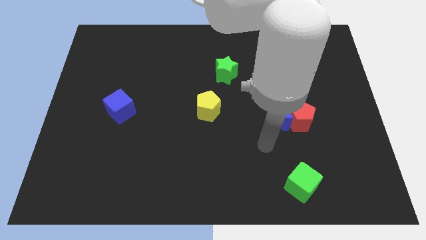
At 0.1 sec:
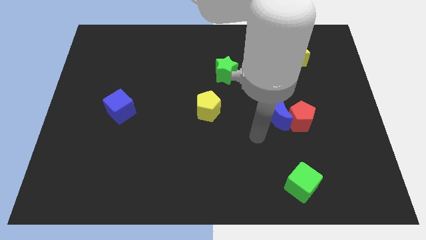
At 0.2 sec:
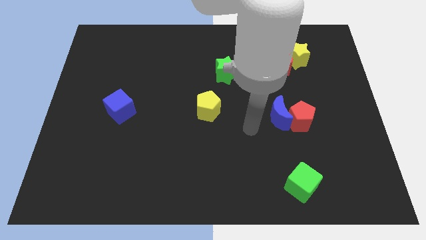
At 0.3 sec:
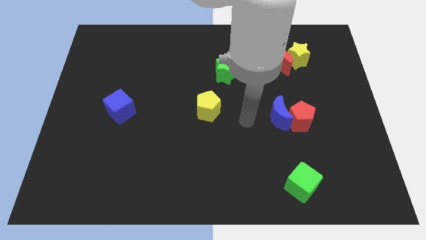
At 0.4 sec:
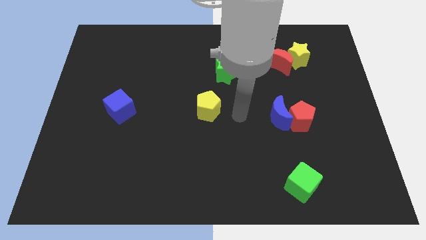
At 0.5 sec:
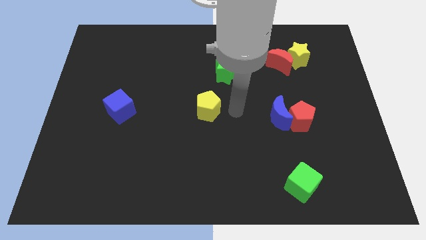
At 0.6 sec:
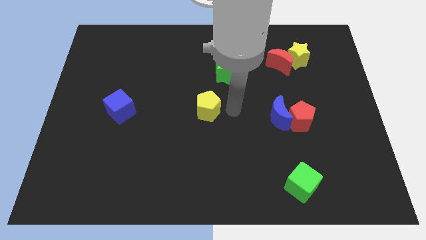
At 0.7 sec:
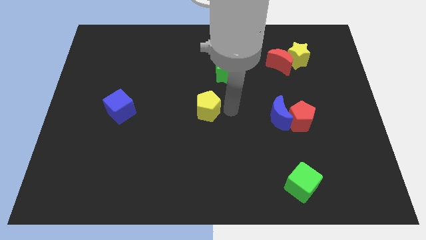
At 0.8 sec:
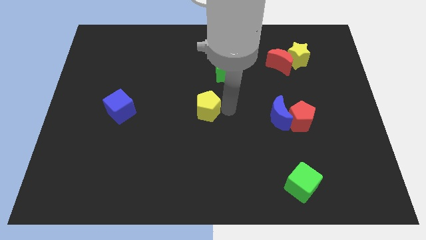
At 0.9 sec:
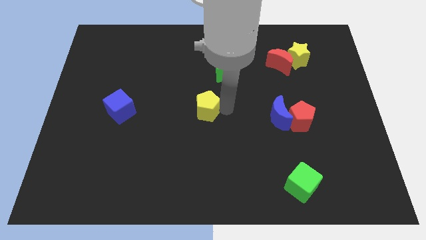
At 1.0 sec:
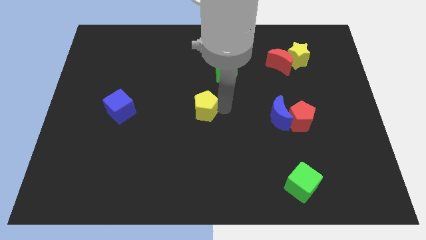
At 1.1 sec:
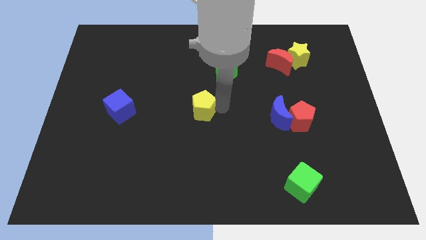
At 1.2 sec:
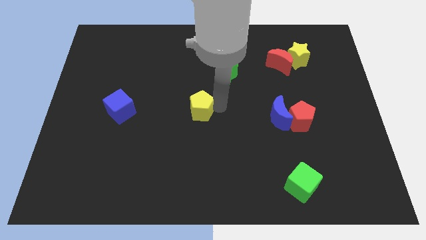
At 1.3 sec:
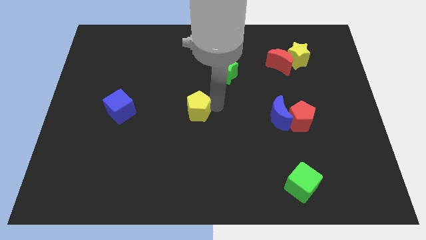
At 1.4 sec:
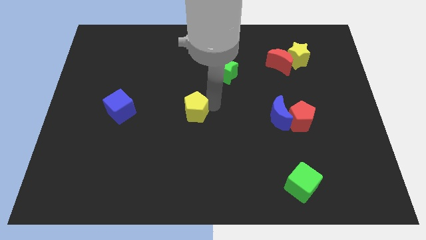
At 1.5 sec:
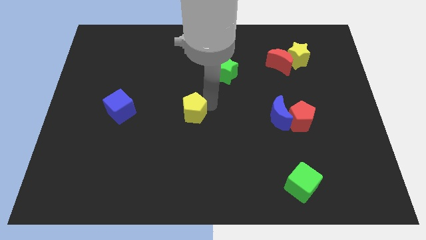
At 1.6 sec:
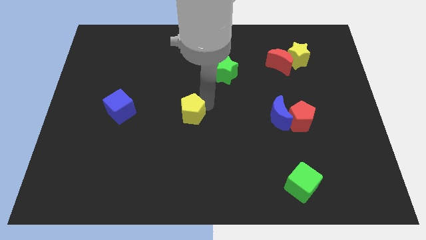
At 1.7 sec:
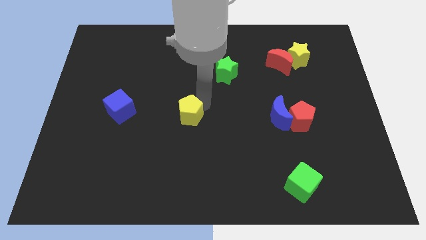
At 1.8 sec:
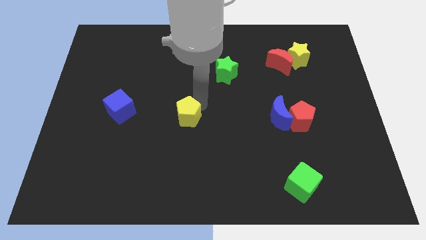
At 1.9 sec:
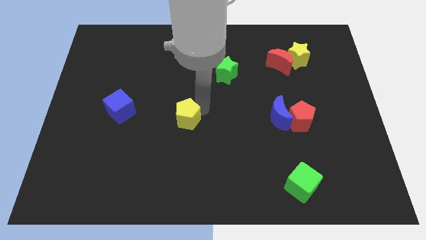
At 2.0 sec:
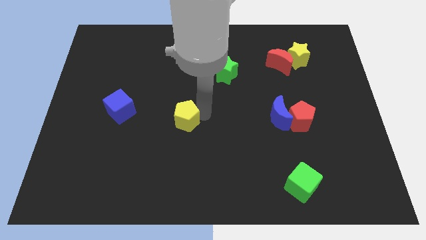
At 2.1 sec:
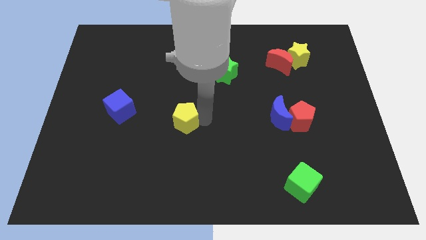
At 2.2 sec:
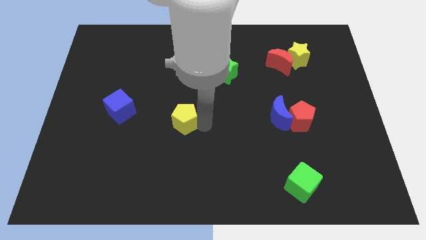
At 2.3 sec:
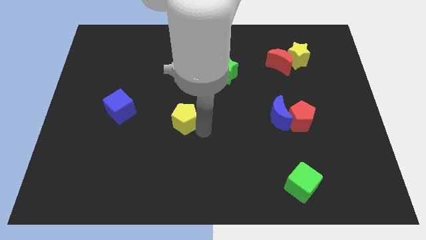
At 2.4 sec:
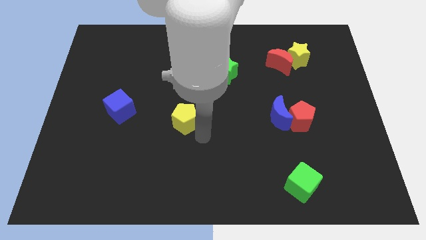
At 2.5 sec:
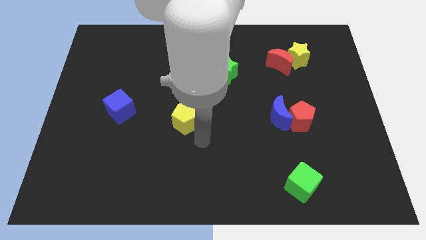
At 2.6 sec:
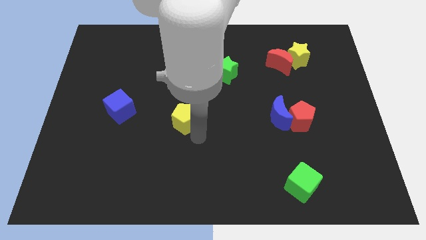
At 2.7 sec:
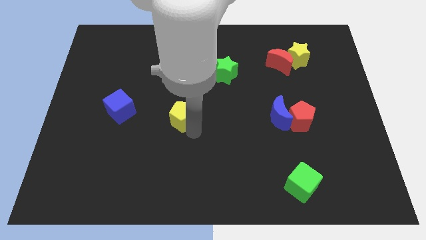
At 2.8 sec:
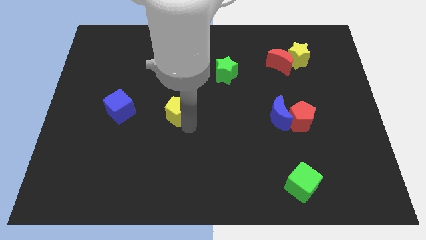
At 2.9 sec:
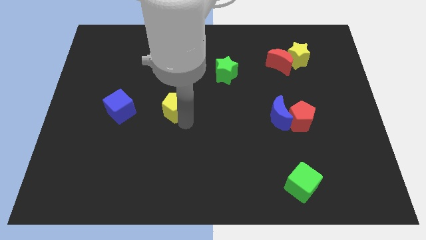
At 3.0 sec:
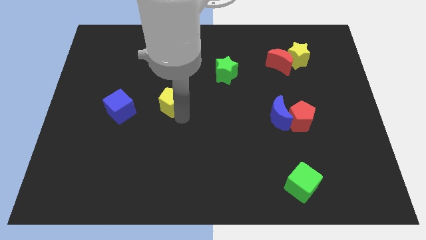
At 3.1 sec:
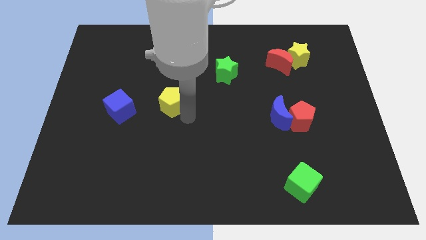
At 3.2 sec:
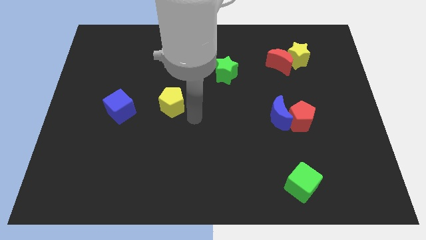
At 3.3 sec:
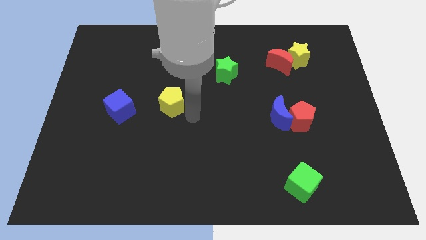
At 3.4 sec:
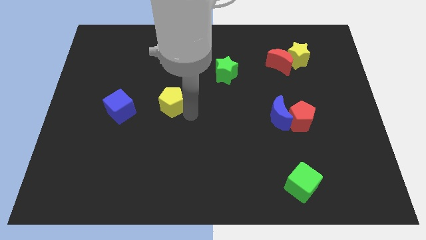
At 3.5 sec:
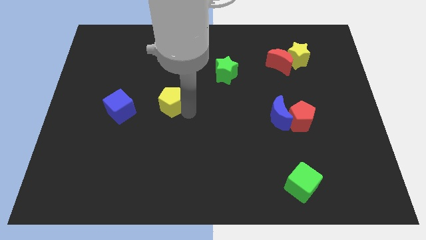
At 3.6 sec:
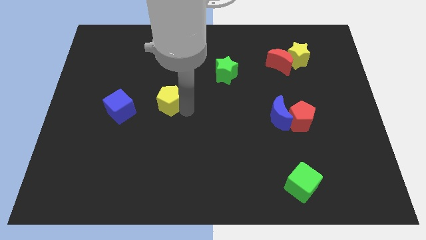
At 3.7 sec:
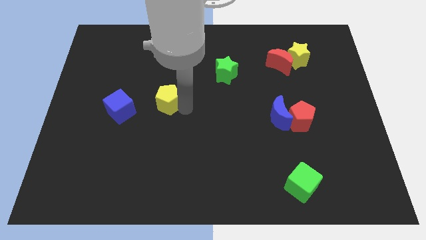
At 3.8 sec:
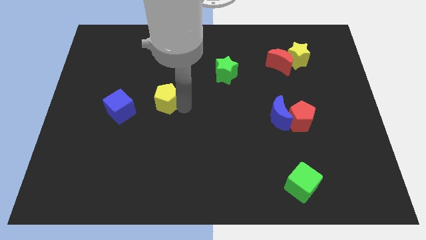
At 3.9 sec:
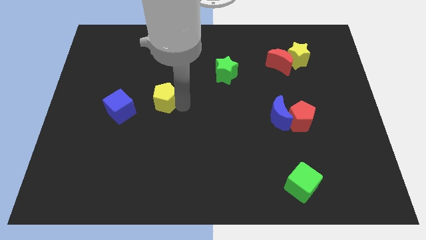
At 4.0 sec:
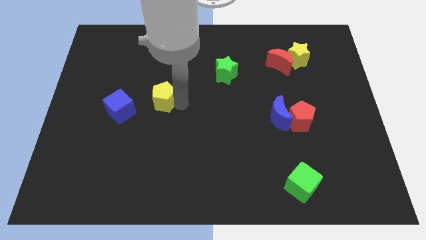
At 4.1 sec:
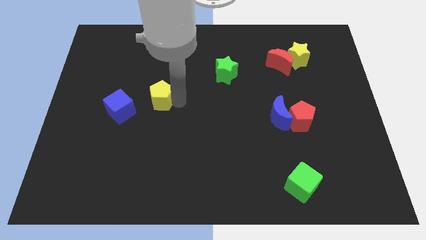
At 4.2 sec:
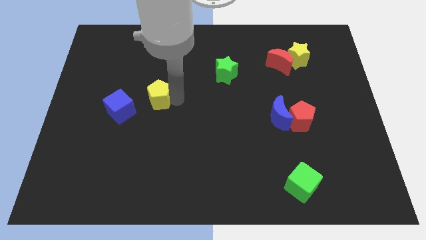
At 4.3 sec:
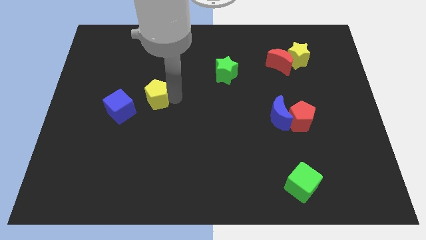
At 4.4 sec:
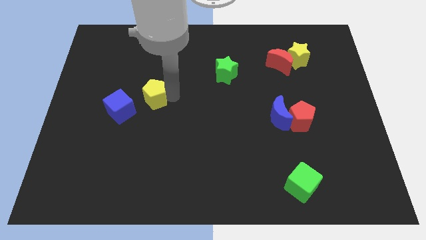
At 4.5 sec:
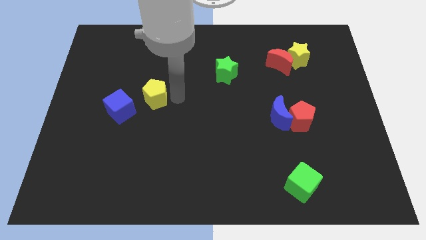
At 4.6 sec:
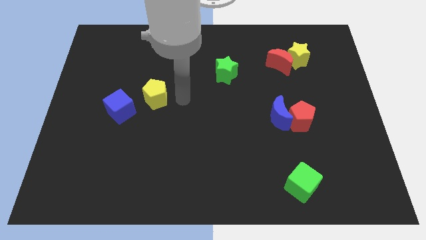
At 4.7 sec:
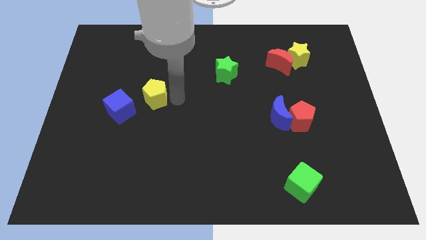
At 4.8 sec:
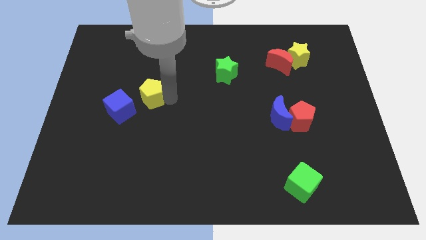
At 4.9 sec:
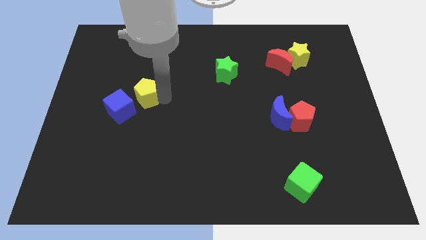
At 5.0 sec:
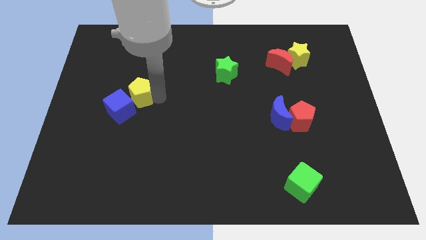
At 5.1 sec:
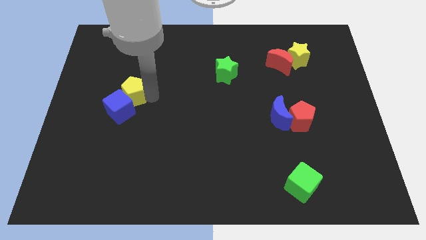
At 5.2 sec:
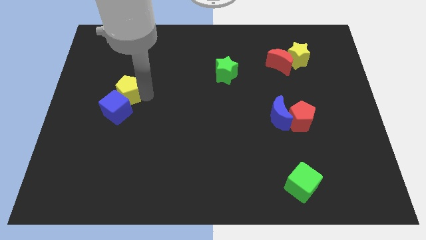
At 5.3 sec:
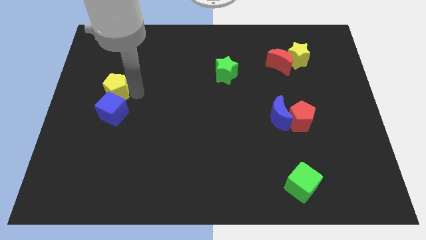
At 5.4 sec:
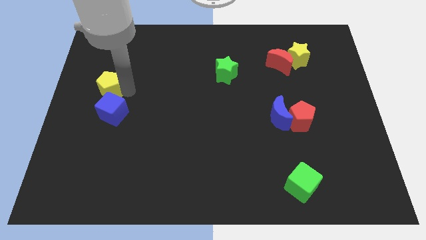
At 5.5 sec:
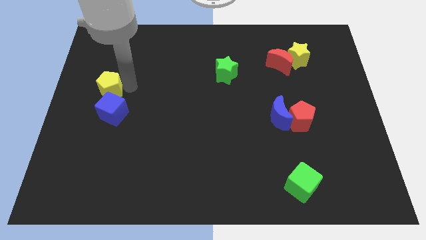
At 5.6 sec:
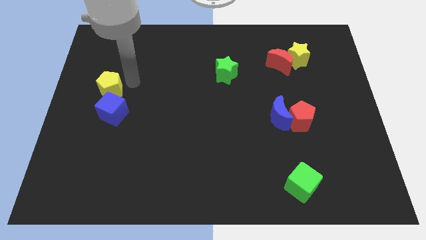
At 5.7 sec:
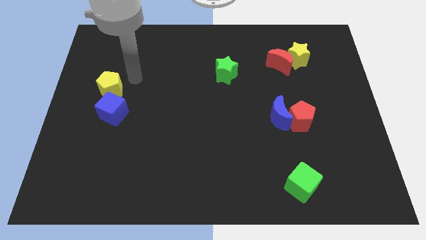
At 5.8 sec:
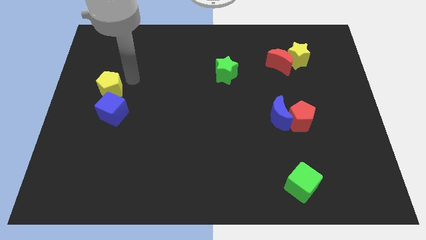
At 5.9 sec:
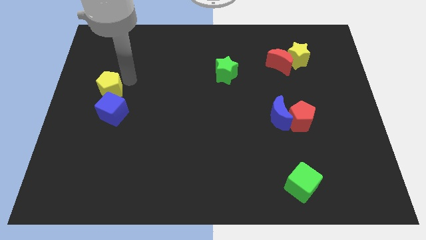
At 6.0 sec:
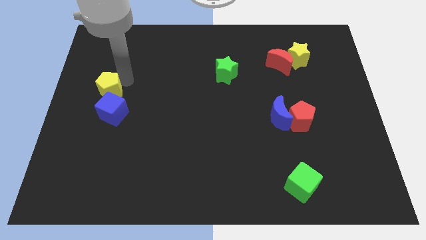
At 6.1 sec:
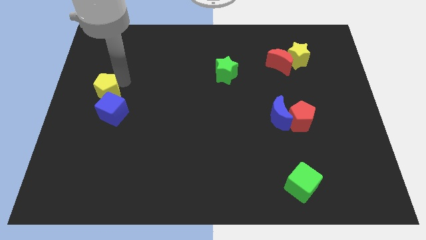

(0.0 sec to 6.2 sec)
move the yellow pentagon to the center left

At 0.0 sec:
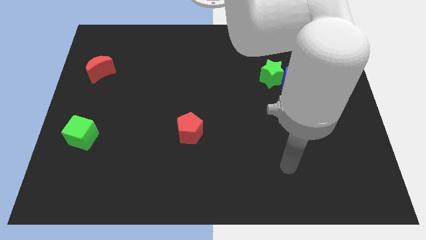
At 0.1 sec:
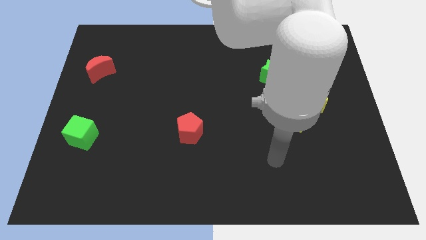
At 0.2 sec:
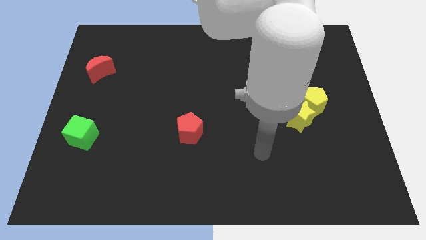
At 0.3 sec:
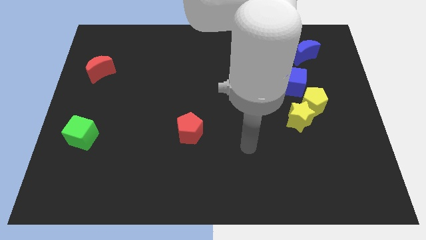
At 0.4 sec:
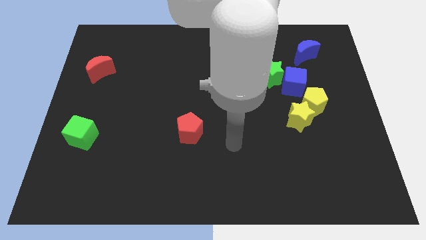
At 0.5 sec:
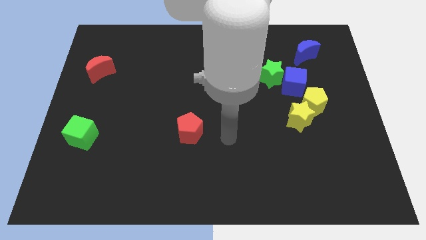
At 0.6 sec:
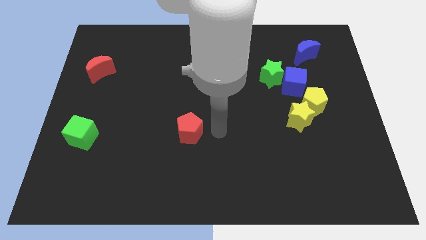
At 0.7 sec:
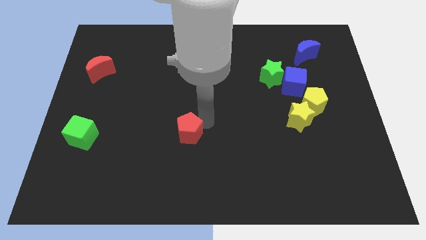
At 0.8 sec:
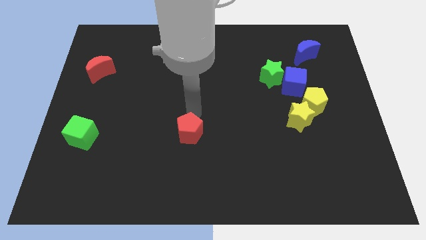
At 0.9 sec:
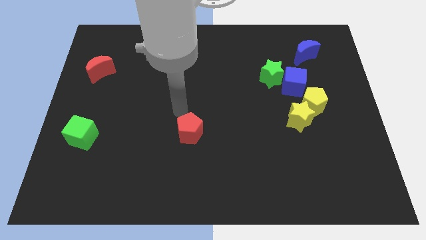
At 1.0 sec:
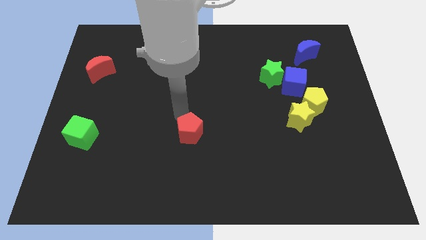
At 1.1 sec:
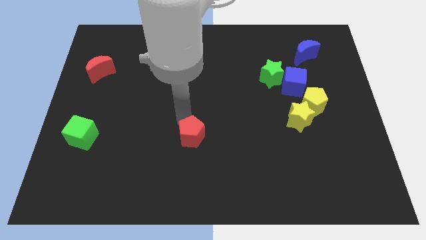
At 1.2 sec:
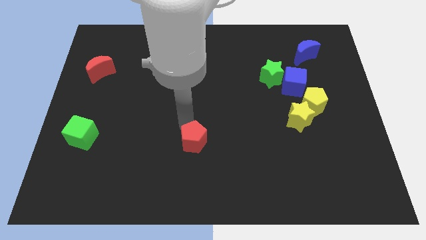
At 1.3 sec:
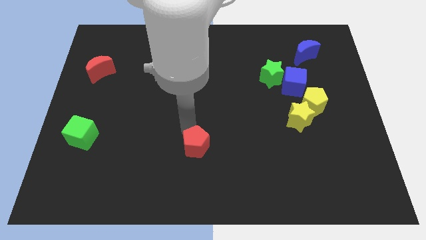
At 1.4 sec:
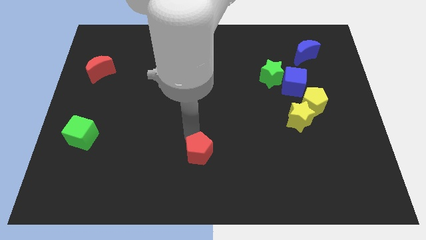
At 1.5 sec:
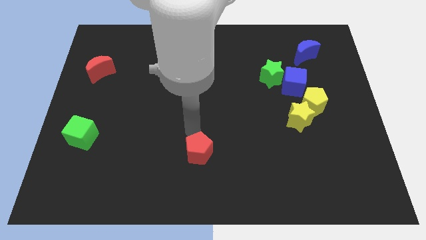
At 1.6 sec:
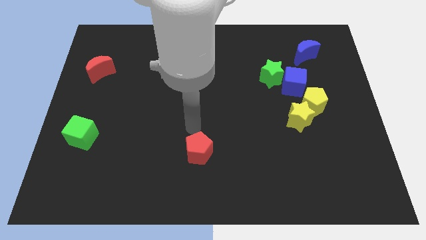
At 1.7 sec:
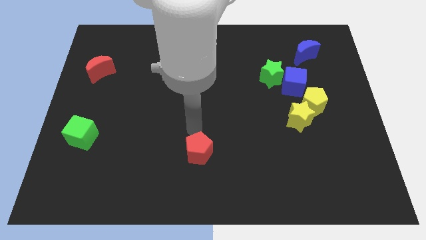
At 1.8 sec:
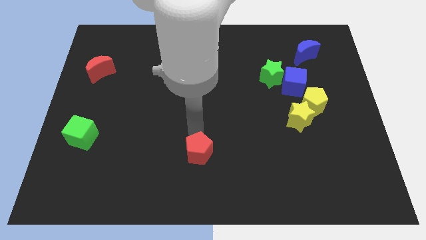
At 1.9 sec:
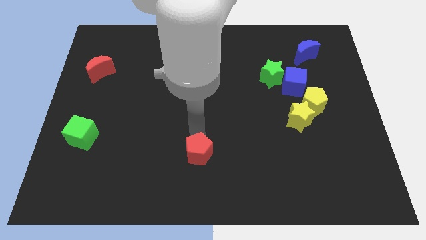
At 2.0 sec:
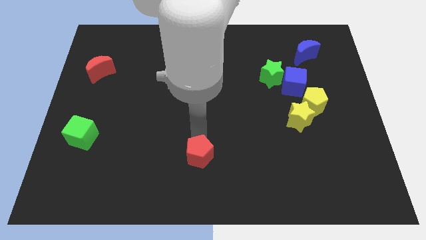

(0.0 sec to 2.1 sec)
slide the red pentagon to the bottom side
